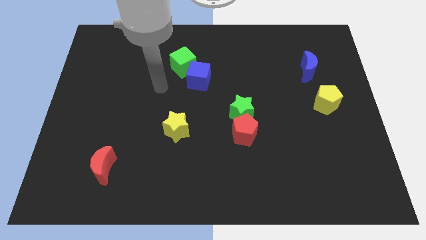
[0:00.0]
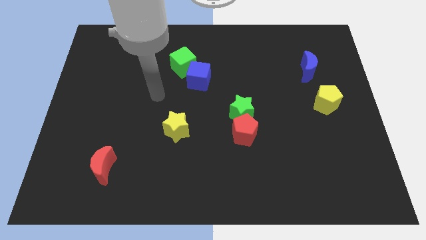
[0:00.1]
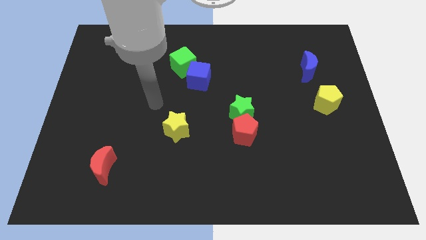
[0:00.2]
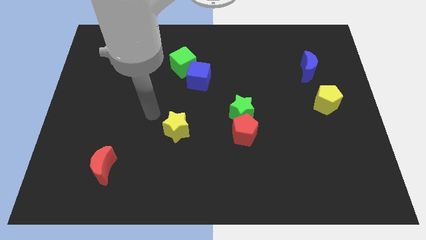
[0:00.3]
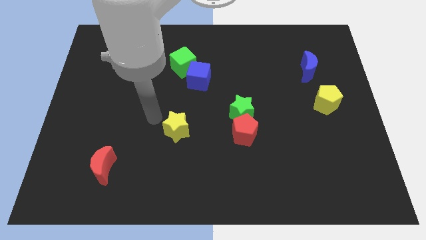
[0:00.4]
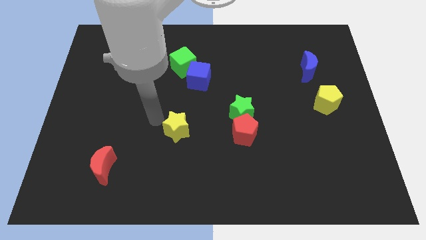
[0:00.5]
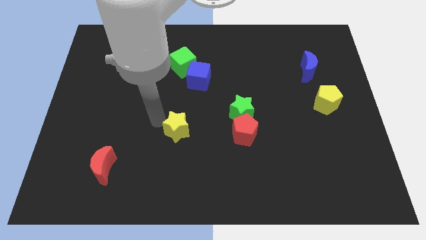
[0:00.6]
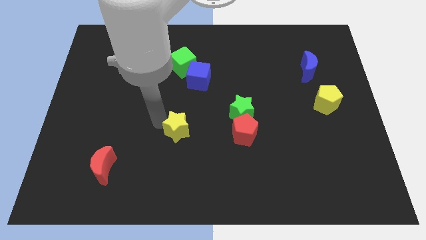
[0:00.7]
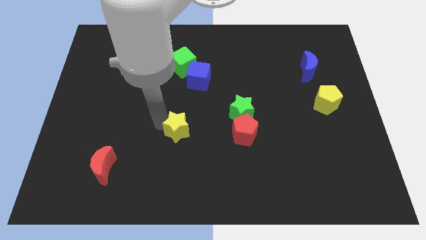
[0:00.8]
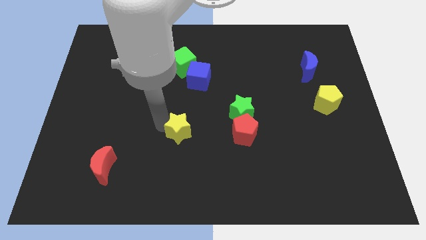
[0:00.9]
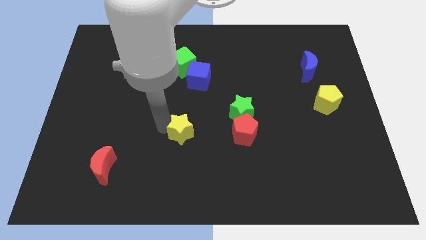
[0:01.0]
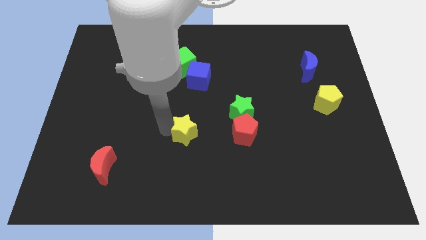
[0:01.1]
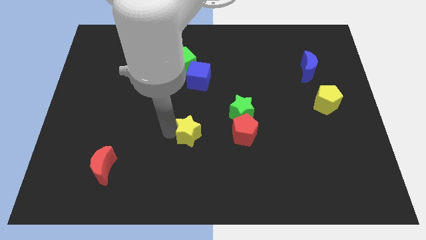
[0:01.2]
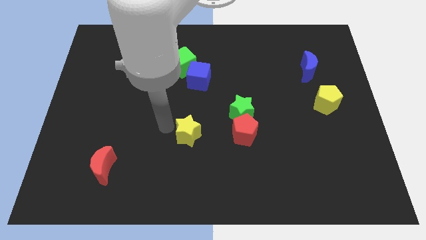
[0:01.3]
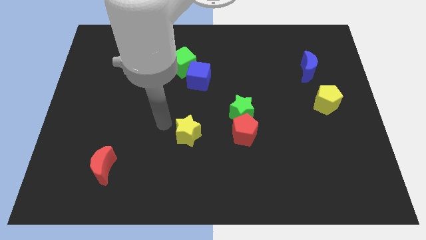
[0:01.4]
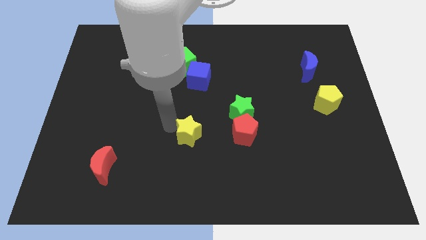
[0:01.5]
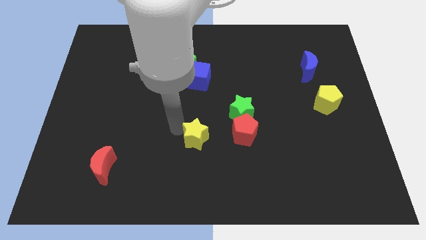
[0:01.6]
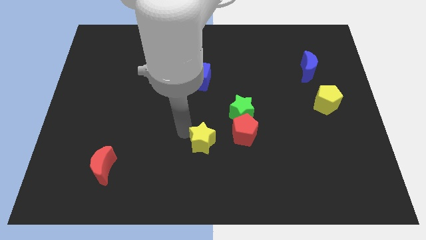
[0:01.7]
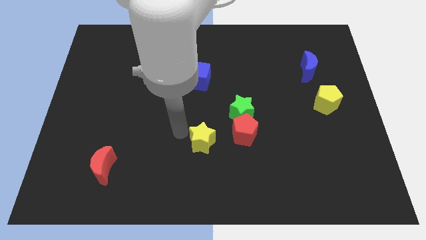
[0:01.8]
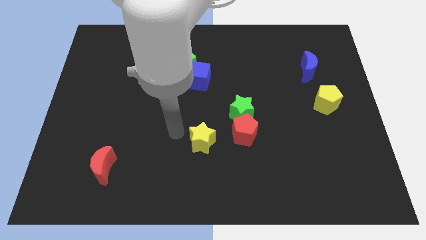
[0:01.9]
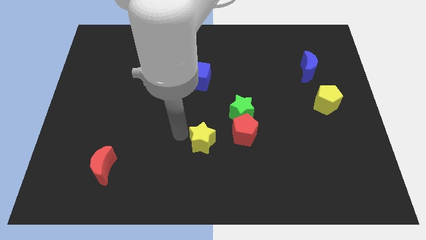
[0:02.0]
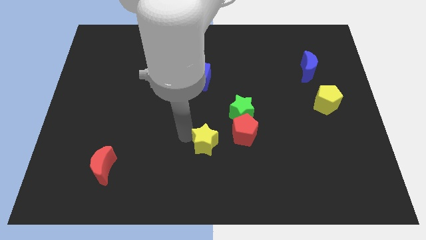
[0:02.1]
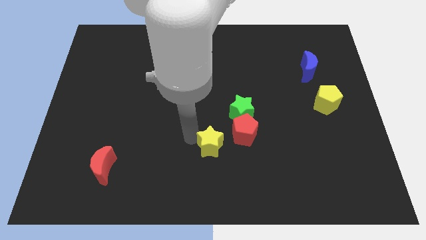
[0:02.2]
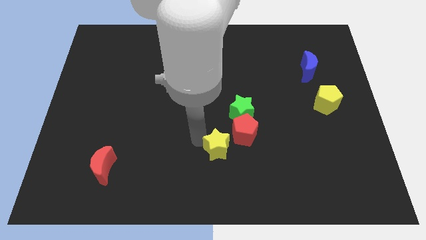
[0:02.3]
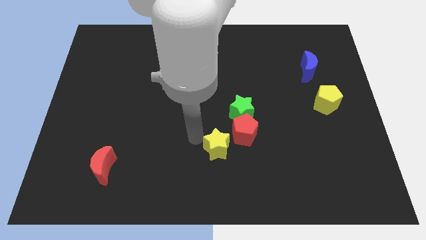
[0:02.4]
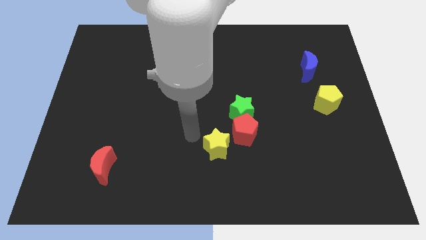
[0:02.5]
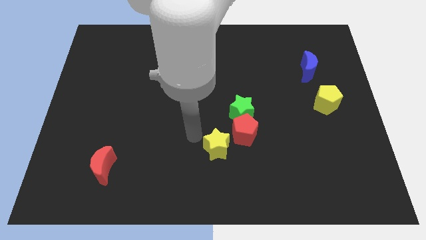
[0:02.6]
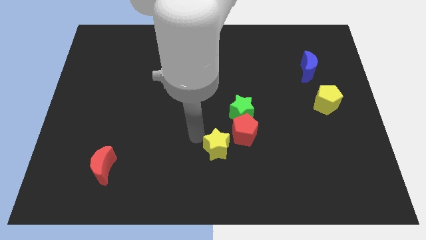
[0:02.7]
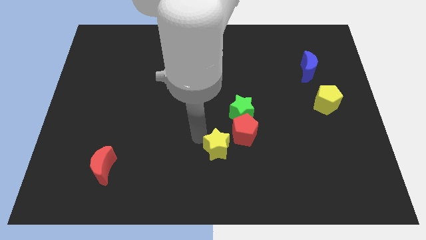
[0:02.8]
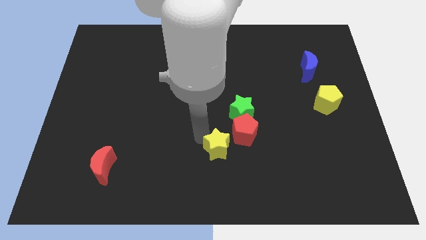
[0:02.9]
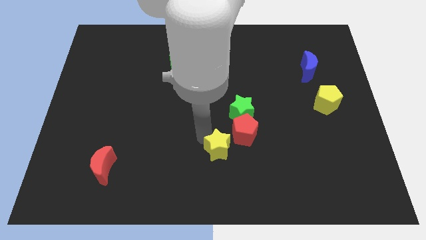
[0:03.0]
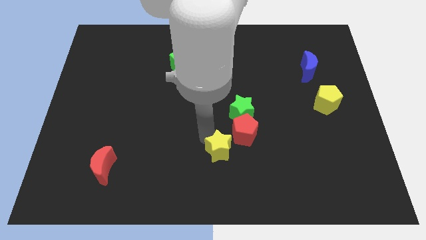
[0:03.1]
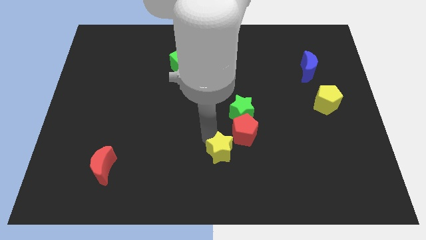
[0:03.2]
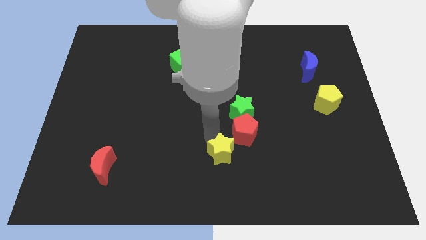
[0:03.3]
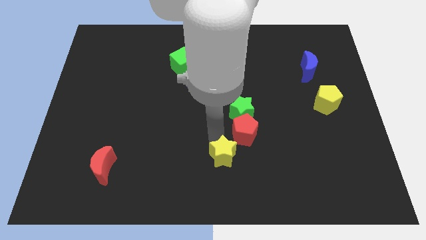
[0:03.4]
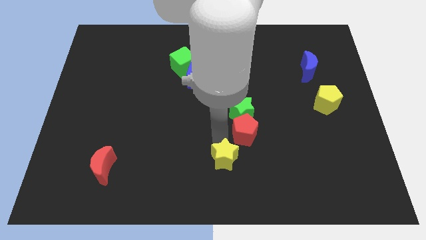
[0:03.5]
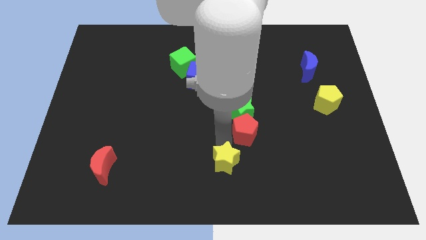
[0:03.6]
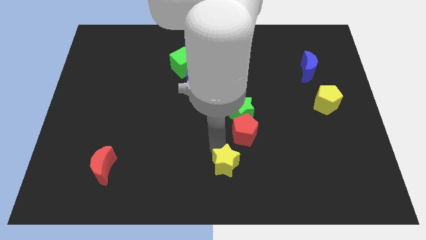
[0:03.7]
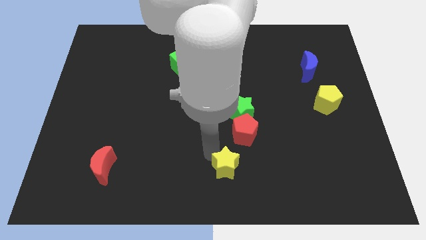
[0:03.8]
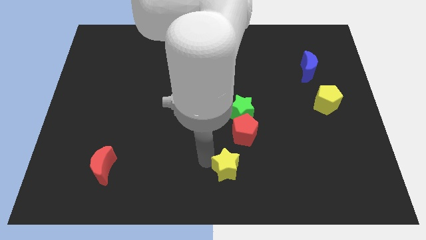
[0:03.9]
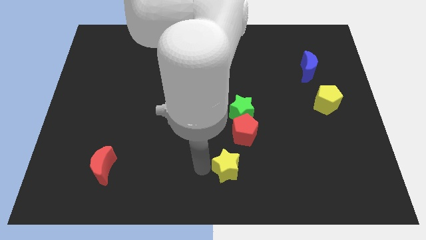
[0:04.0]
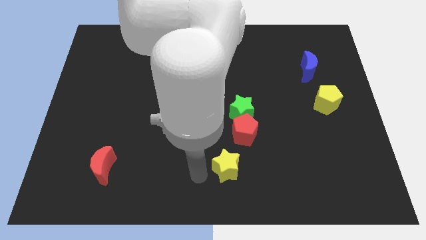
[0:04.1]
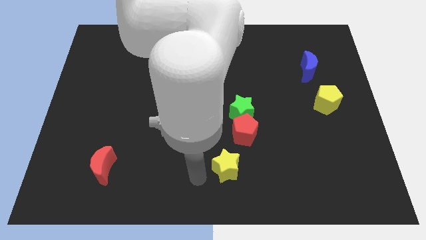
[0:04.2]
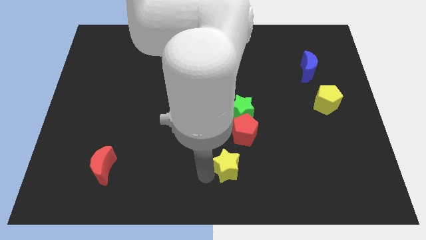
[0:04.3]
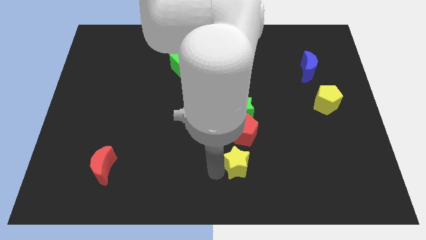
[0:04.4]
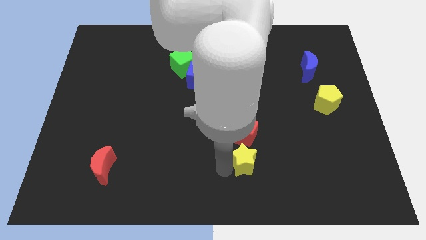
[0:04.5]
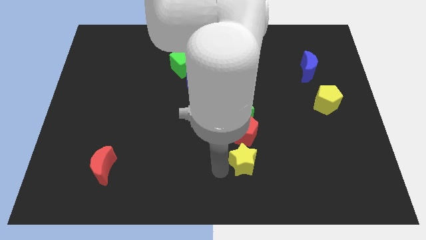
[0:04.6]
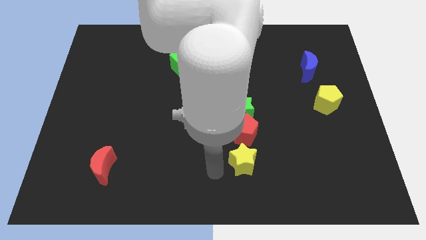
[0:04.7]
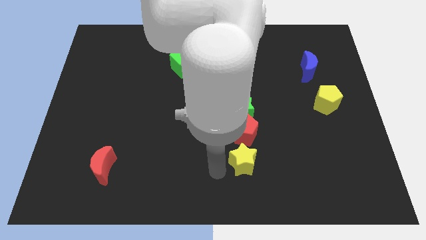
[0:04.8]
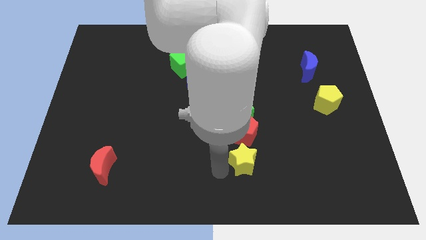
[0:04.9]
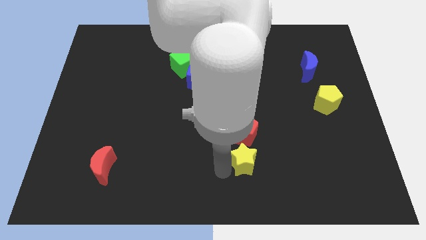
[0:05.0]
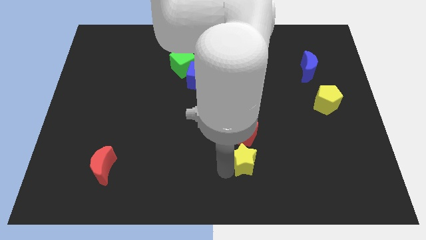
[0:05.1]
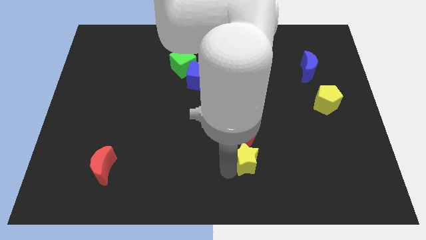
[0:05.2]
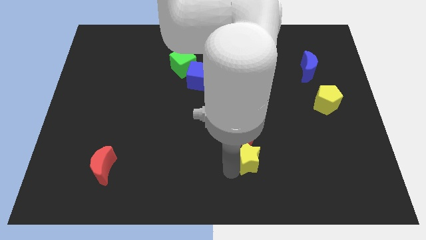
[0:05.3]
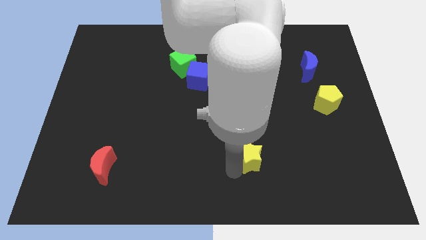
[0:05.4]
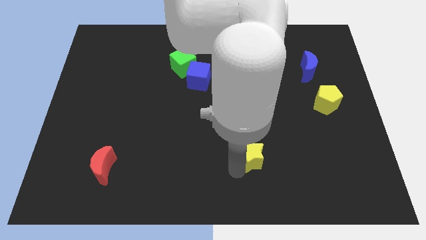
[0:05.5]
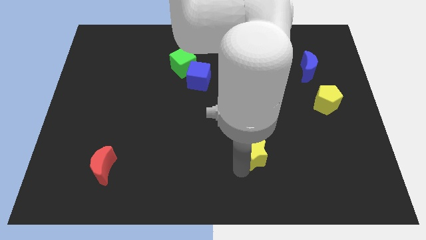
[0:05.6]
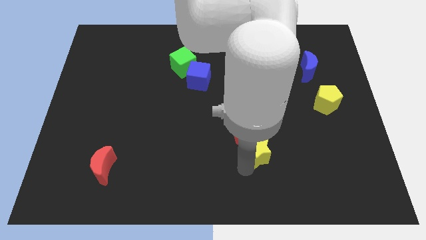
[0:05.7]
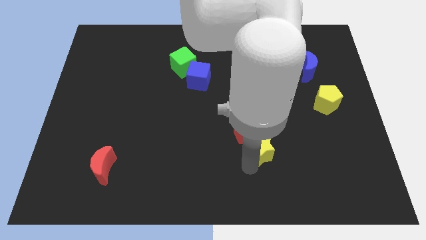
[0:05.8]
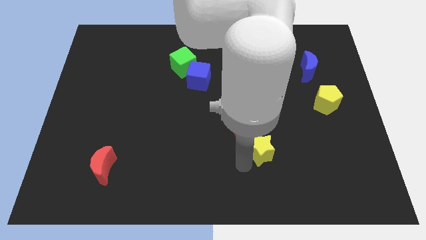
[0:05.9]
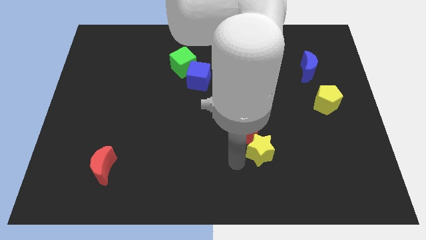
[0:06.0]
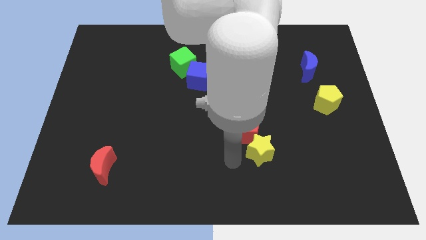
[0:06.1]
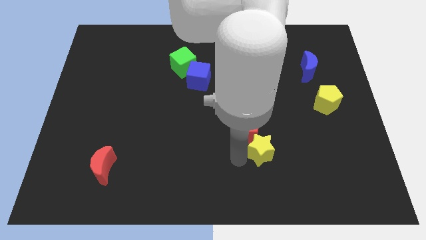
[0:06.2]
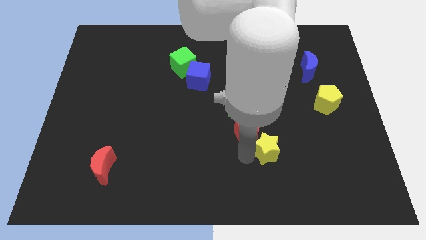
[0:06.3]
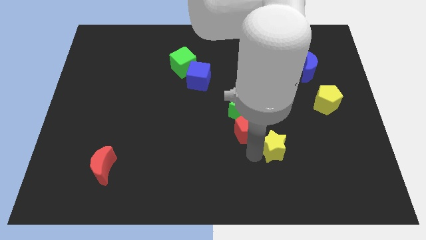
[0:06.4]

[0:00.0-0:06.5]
move the yellow star right

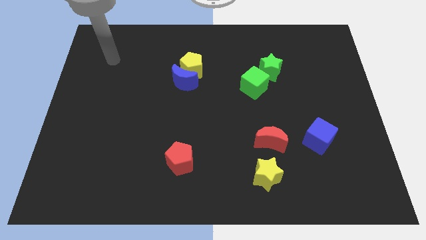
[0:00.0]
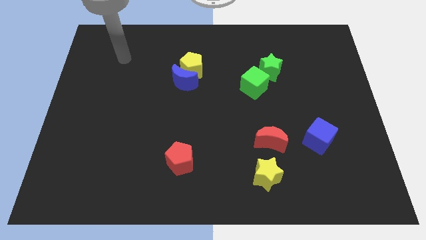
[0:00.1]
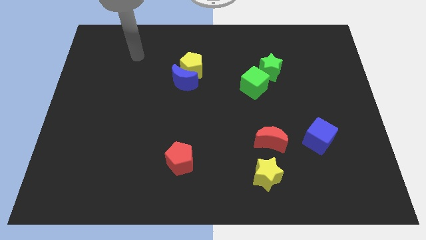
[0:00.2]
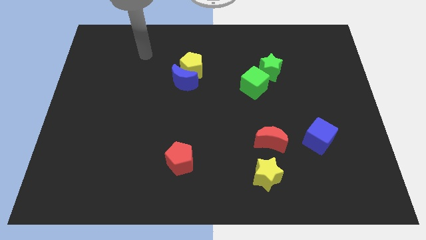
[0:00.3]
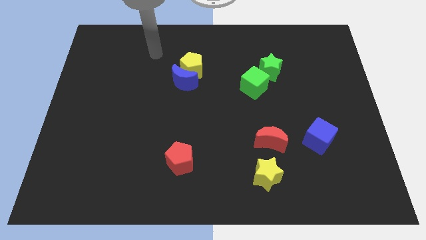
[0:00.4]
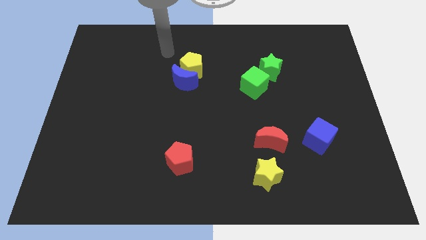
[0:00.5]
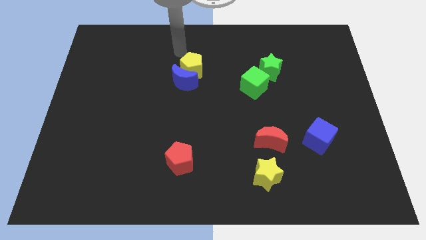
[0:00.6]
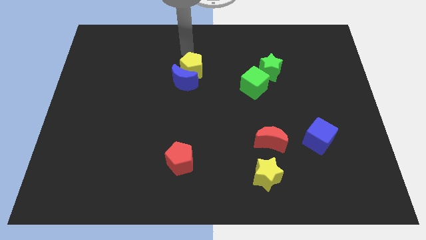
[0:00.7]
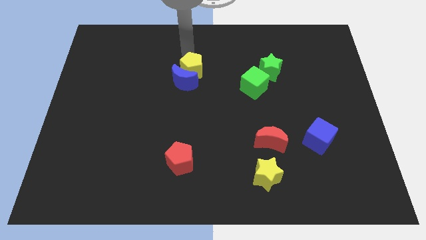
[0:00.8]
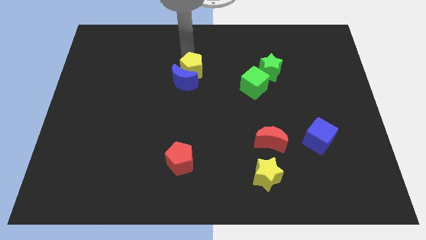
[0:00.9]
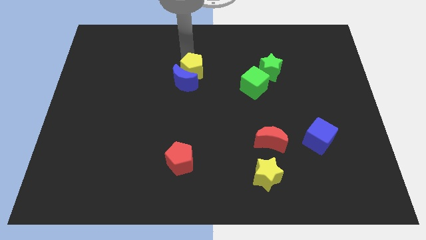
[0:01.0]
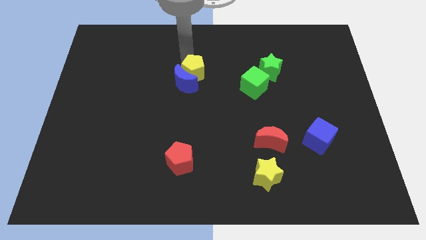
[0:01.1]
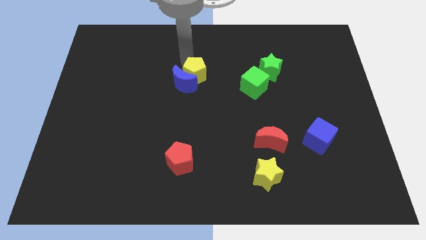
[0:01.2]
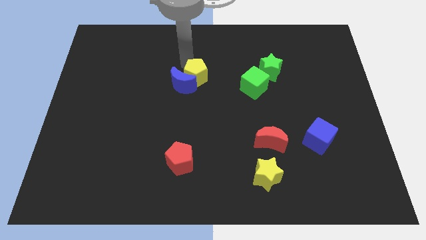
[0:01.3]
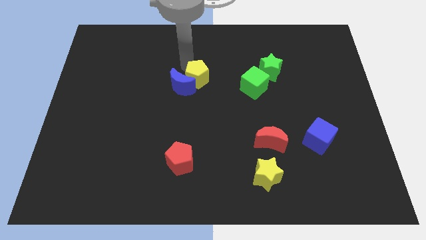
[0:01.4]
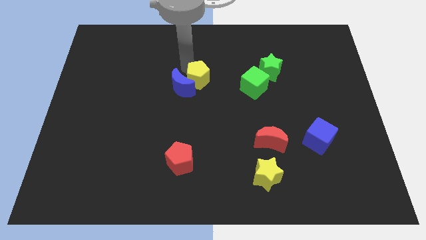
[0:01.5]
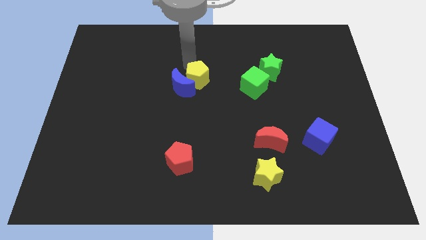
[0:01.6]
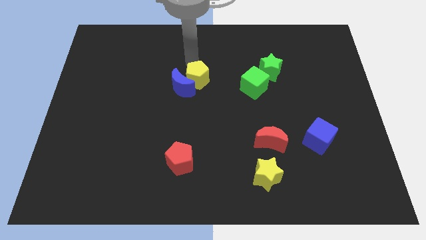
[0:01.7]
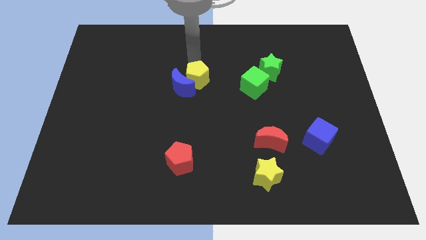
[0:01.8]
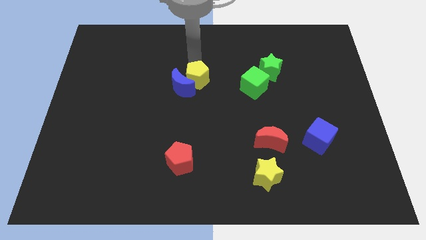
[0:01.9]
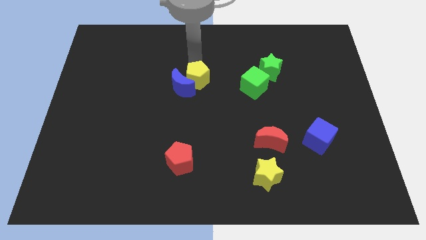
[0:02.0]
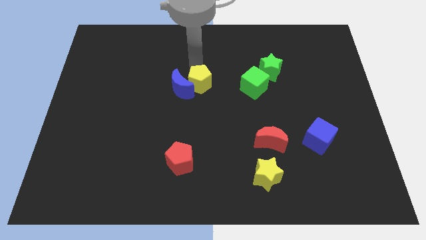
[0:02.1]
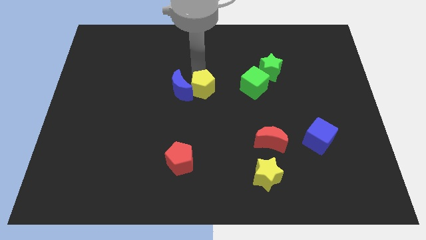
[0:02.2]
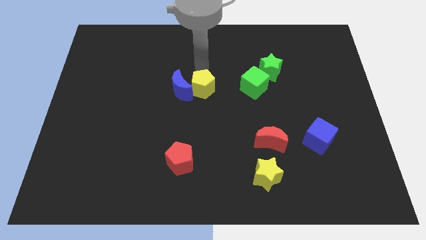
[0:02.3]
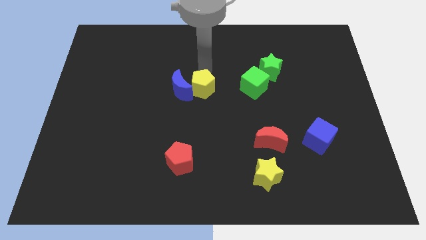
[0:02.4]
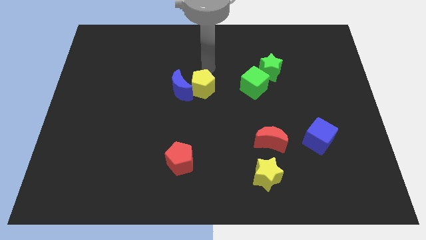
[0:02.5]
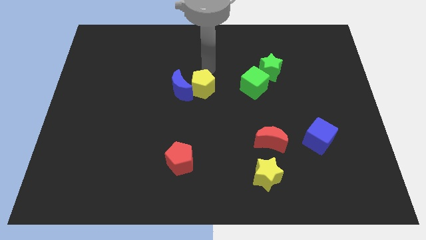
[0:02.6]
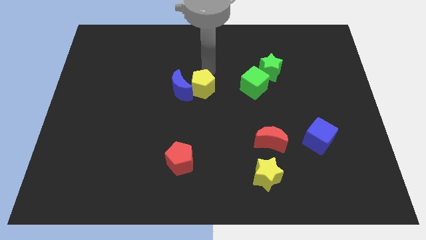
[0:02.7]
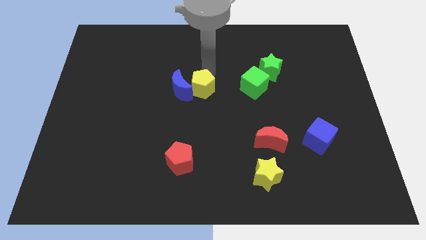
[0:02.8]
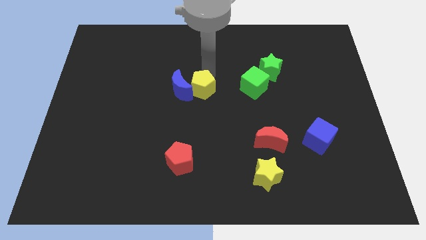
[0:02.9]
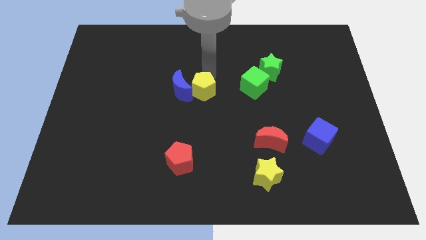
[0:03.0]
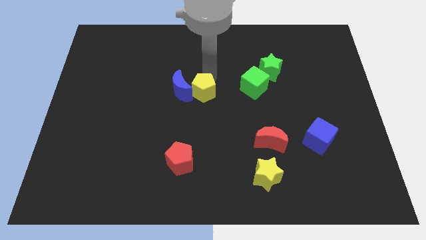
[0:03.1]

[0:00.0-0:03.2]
slide the yellow pentagon a little bit downwards
